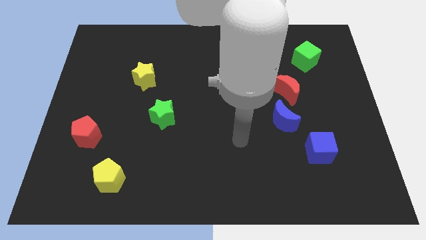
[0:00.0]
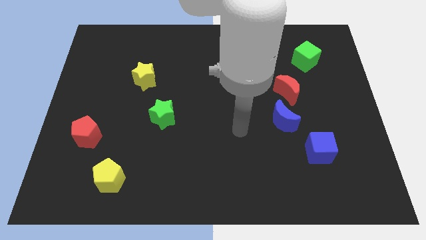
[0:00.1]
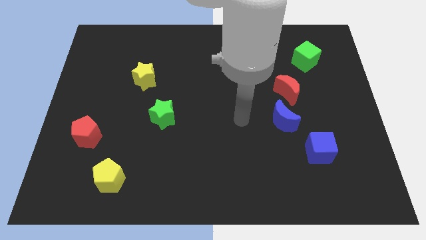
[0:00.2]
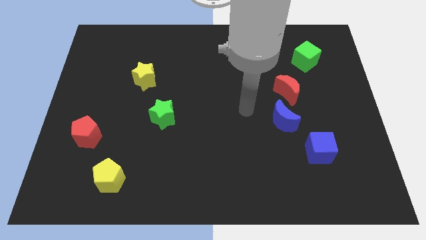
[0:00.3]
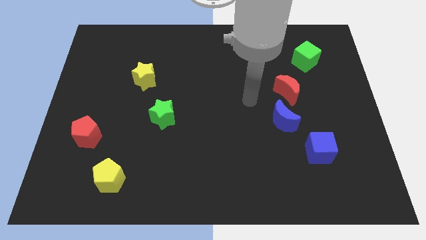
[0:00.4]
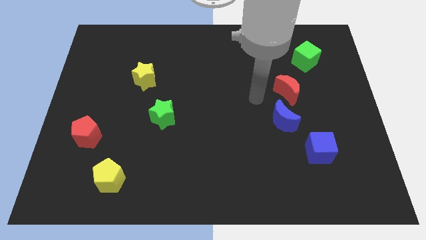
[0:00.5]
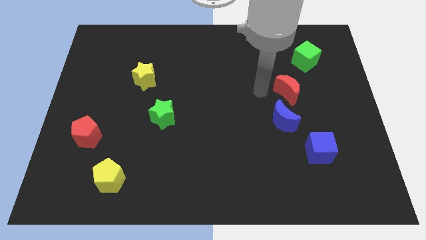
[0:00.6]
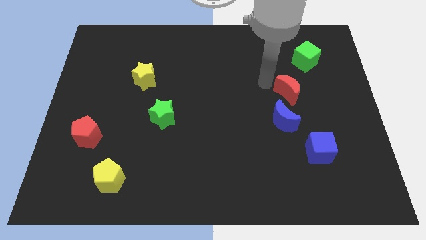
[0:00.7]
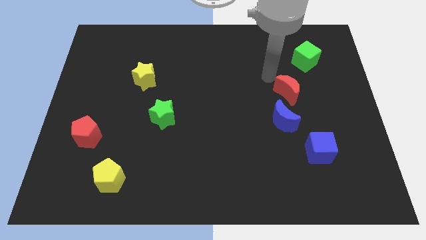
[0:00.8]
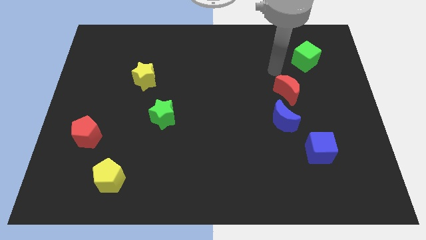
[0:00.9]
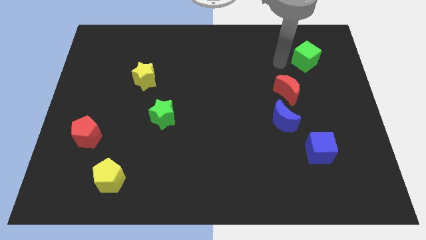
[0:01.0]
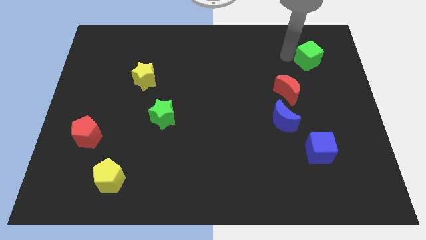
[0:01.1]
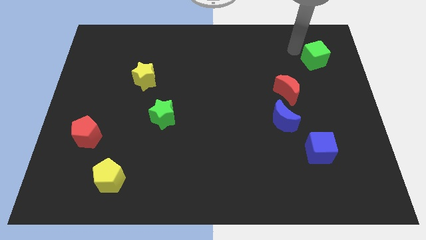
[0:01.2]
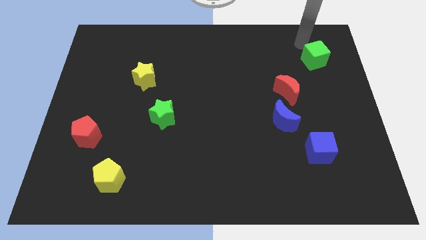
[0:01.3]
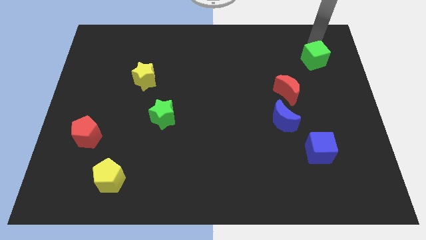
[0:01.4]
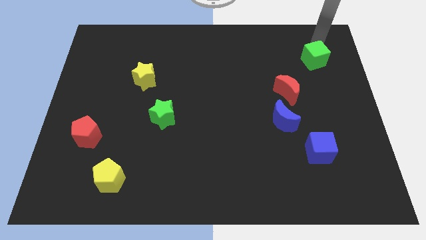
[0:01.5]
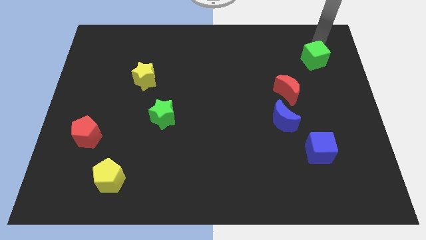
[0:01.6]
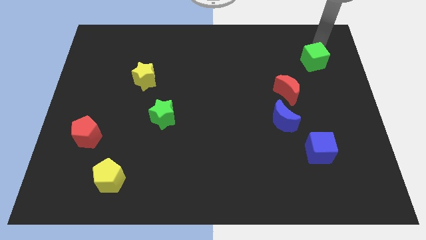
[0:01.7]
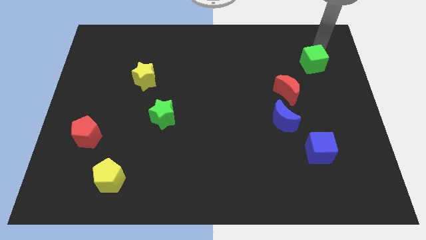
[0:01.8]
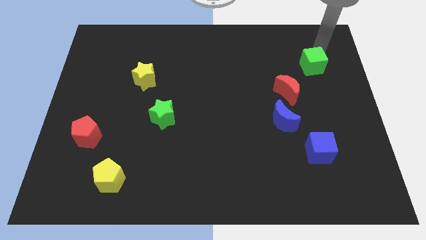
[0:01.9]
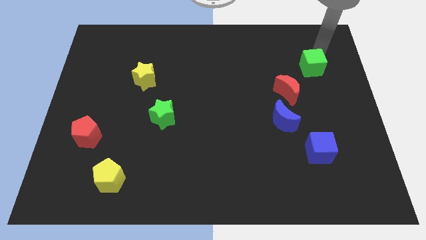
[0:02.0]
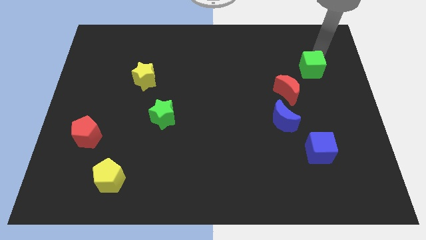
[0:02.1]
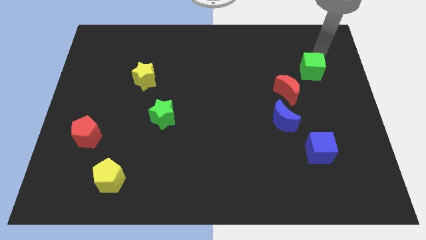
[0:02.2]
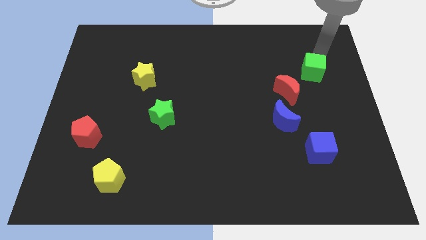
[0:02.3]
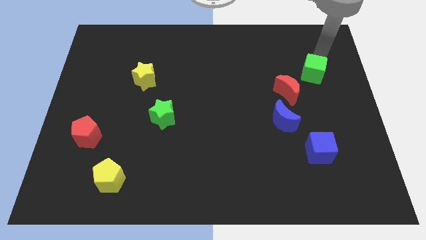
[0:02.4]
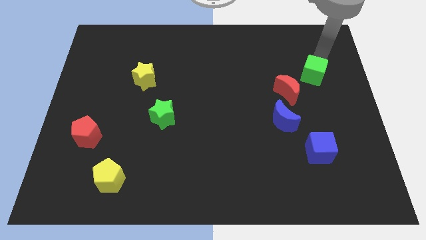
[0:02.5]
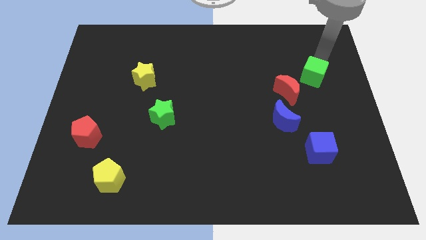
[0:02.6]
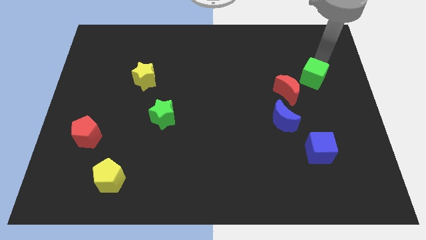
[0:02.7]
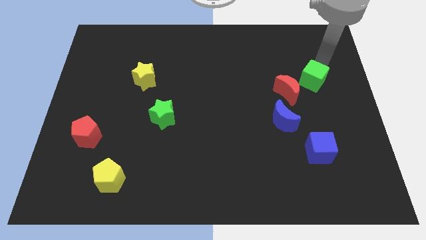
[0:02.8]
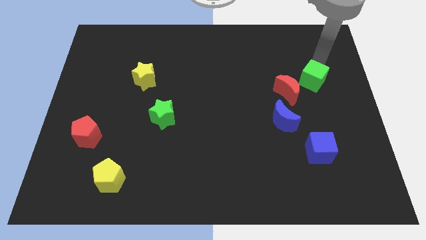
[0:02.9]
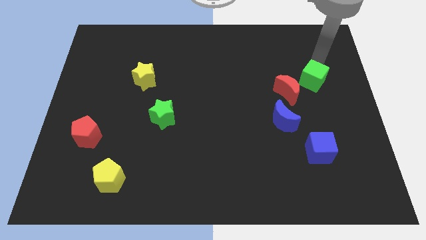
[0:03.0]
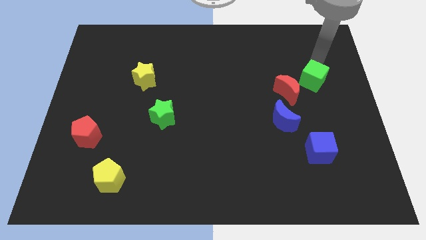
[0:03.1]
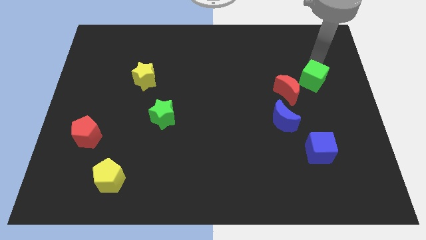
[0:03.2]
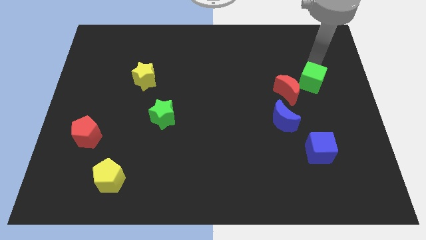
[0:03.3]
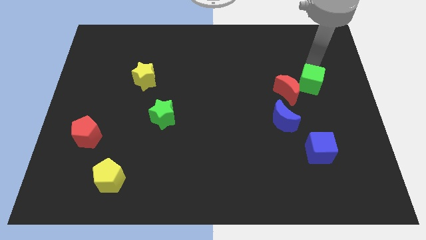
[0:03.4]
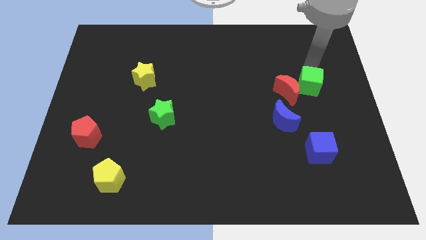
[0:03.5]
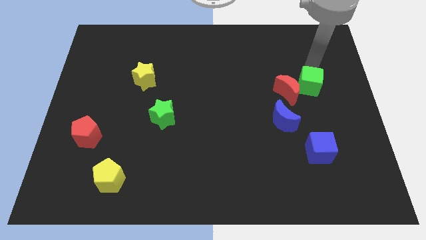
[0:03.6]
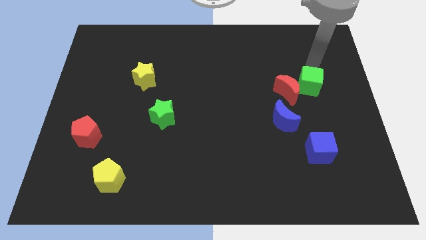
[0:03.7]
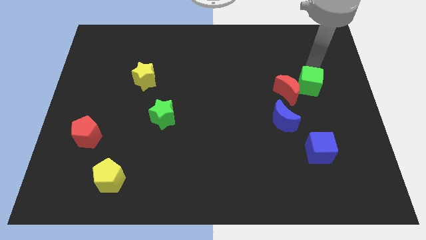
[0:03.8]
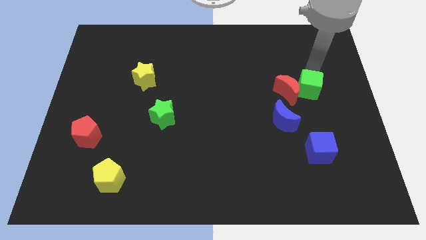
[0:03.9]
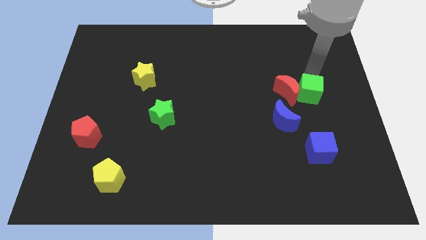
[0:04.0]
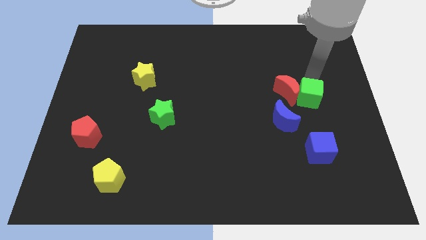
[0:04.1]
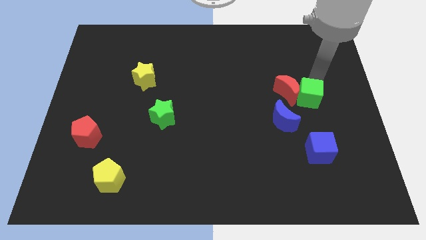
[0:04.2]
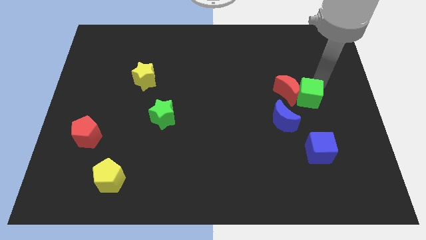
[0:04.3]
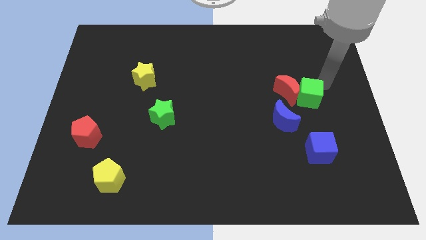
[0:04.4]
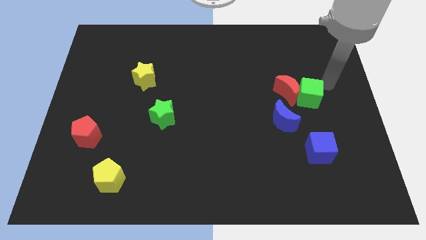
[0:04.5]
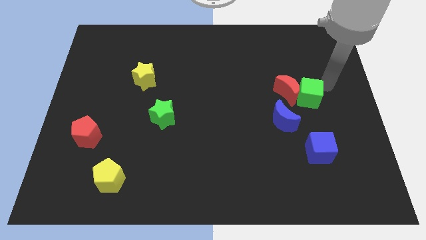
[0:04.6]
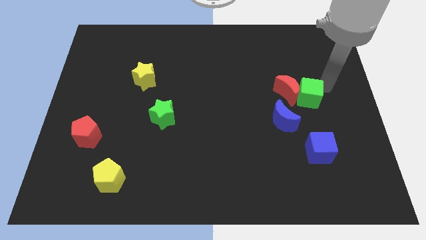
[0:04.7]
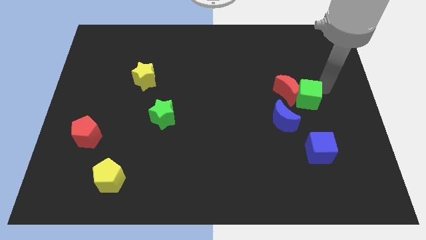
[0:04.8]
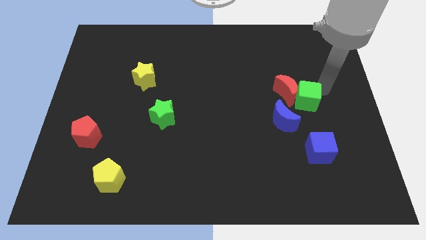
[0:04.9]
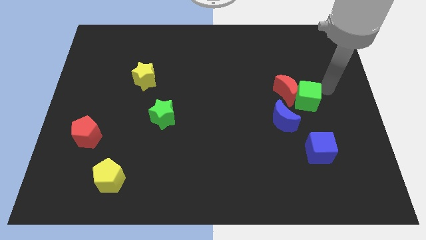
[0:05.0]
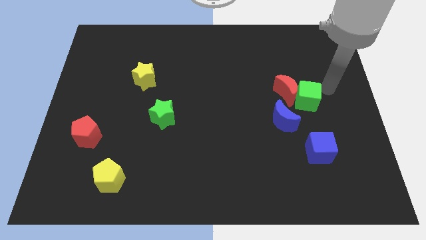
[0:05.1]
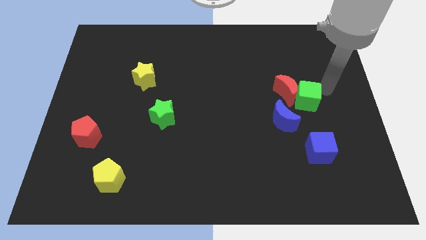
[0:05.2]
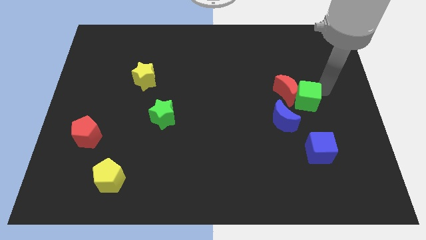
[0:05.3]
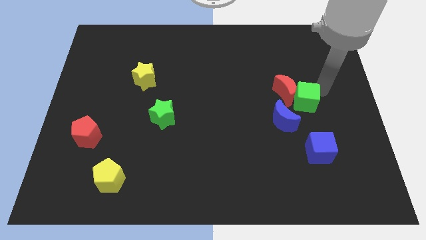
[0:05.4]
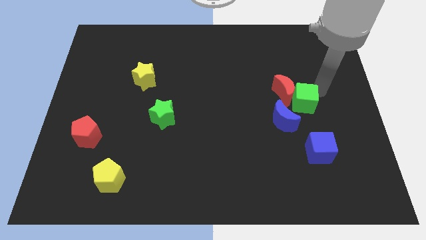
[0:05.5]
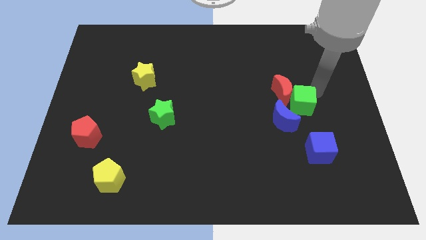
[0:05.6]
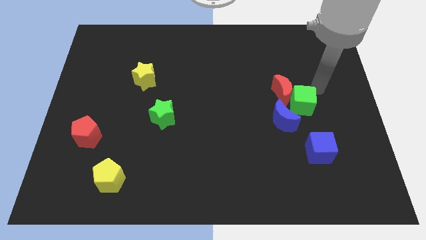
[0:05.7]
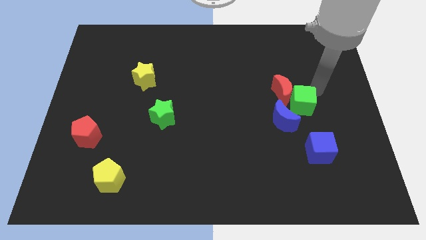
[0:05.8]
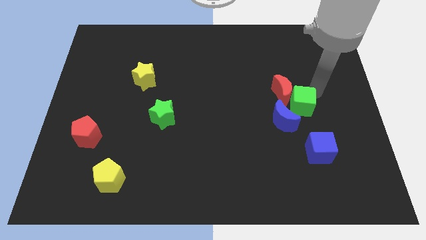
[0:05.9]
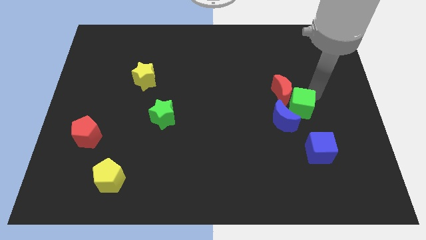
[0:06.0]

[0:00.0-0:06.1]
put the green cube towards the blue moon

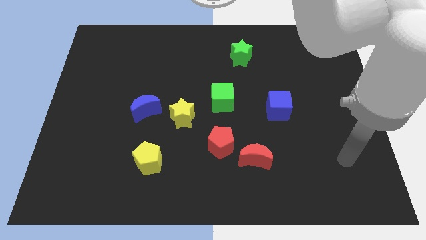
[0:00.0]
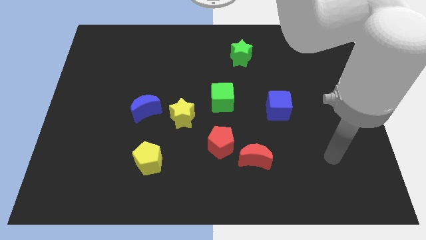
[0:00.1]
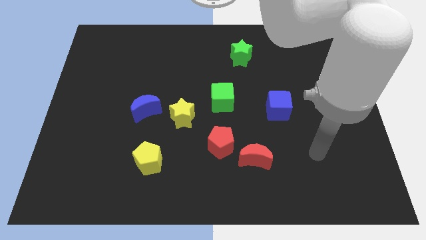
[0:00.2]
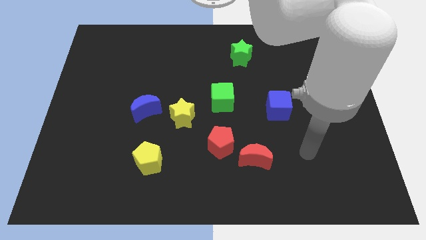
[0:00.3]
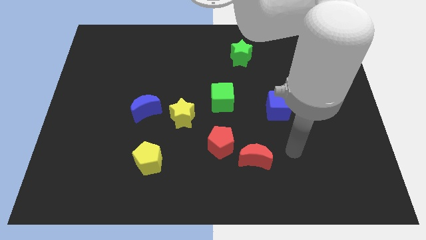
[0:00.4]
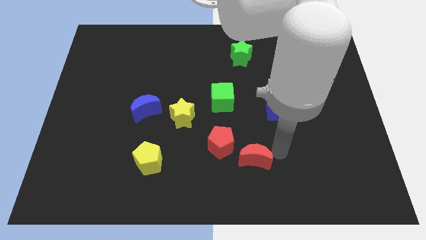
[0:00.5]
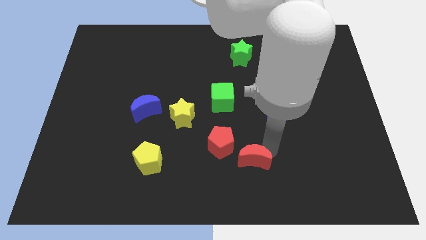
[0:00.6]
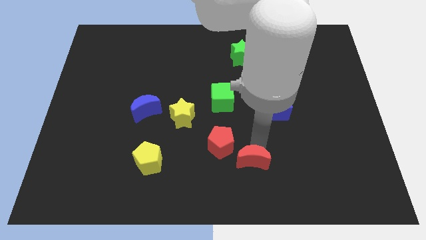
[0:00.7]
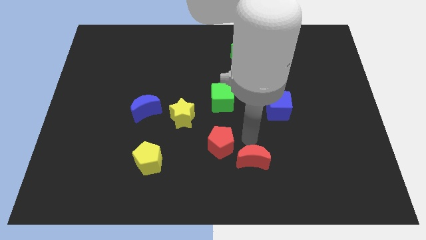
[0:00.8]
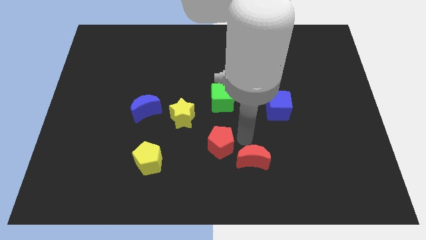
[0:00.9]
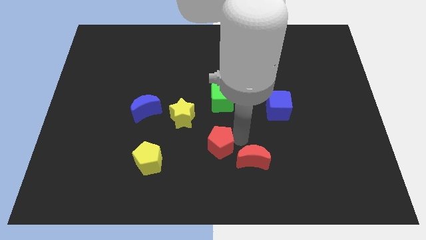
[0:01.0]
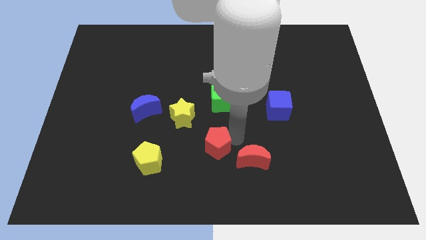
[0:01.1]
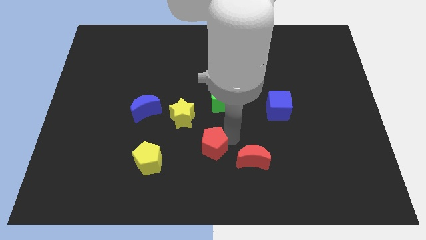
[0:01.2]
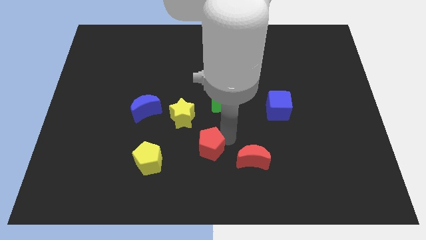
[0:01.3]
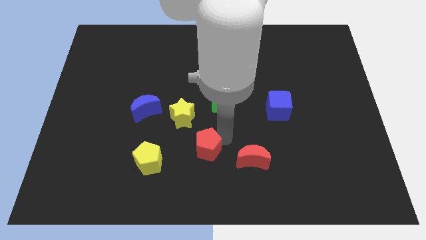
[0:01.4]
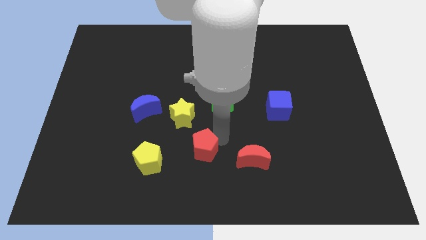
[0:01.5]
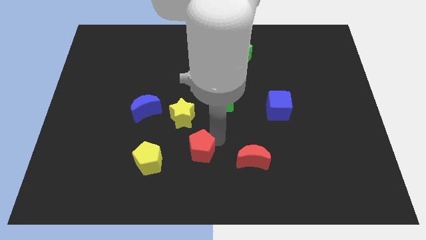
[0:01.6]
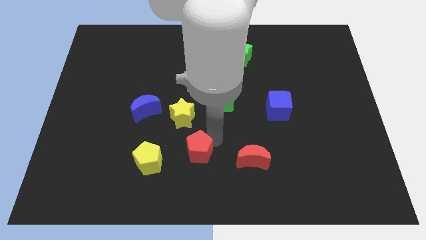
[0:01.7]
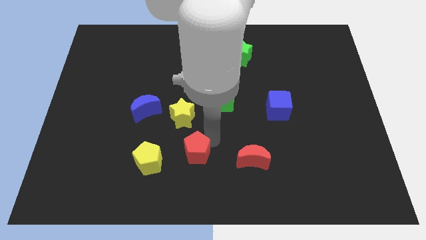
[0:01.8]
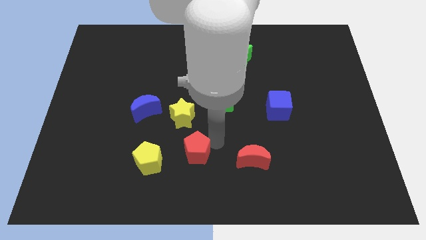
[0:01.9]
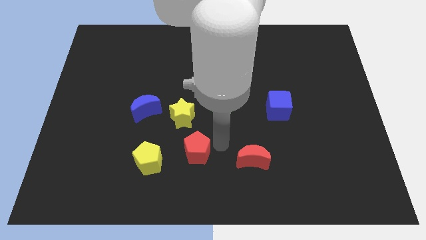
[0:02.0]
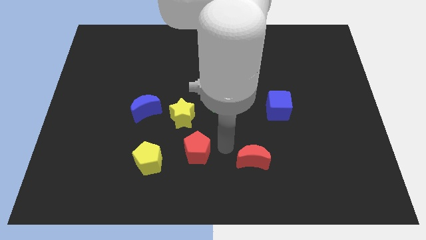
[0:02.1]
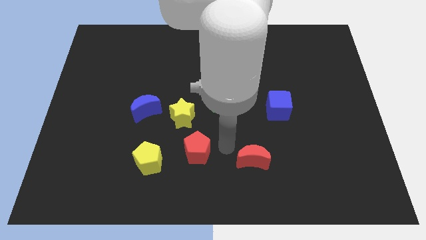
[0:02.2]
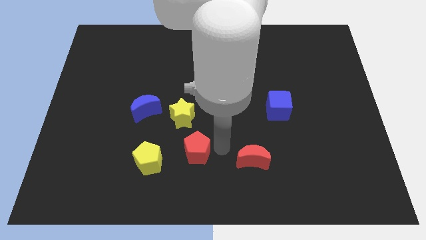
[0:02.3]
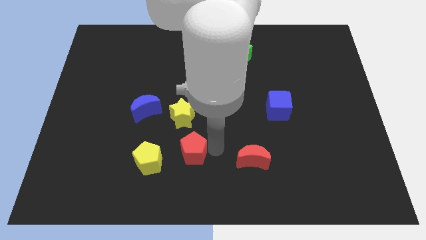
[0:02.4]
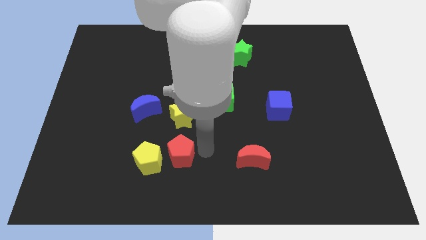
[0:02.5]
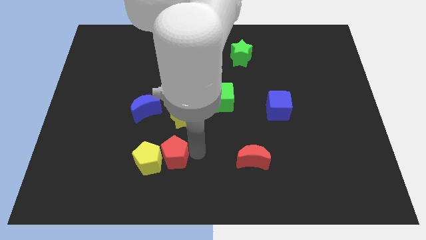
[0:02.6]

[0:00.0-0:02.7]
push the red pentagon towards the yellow pentagon
